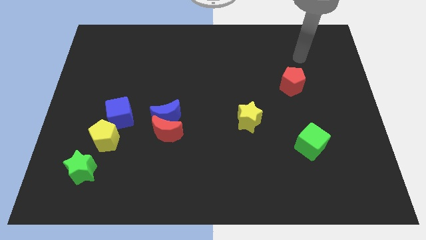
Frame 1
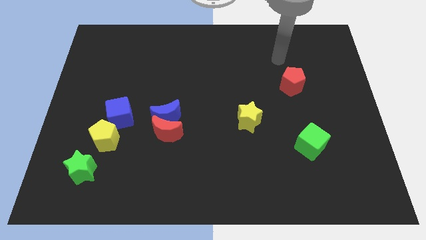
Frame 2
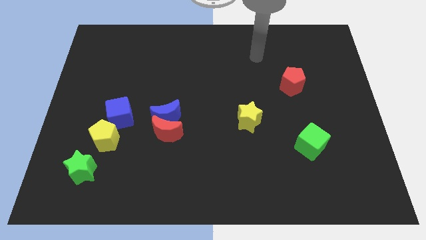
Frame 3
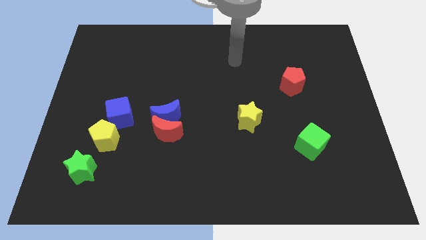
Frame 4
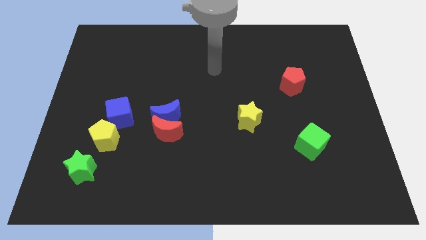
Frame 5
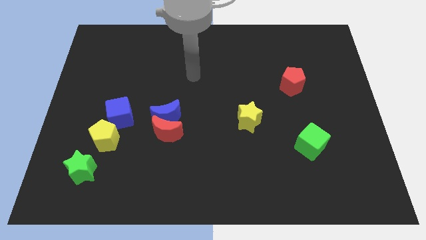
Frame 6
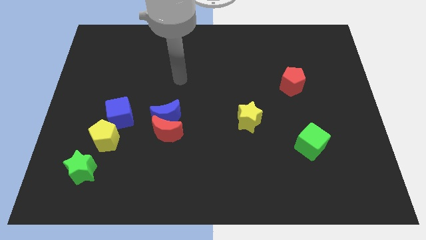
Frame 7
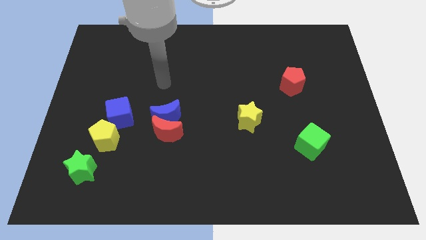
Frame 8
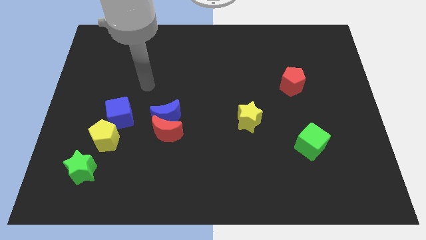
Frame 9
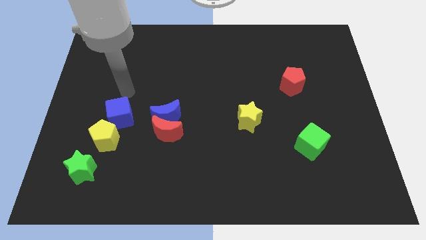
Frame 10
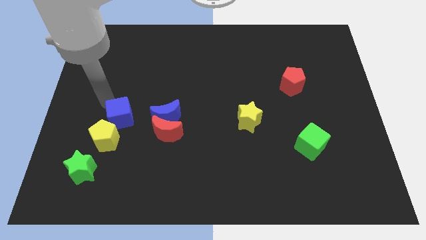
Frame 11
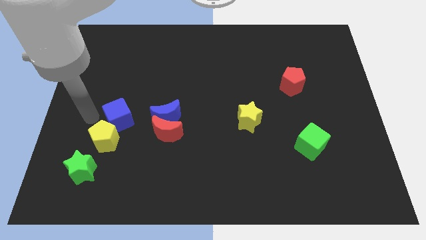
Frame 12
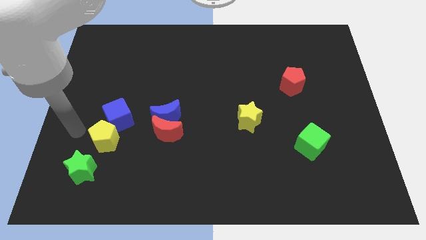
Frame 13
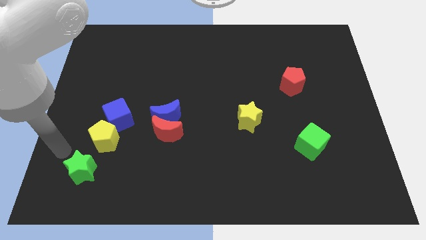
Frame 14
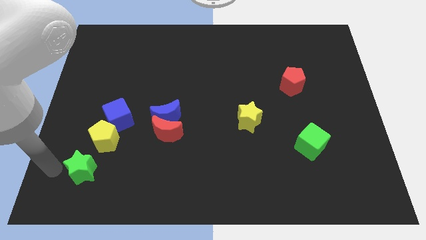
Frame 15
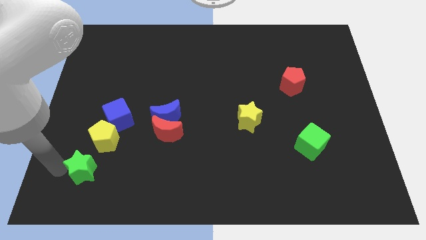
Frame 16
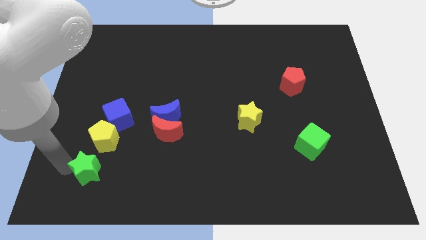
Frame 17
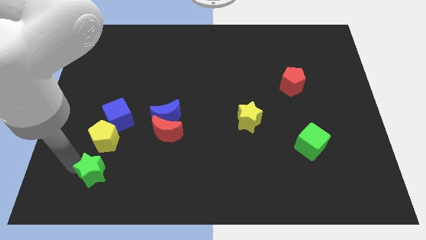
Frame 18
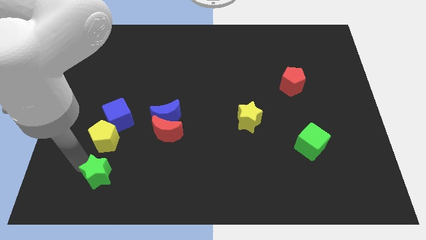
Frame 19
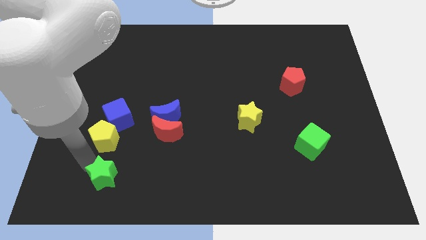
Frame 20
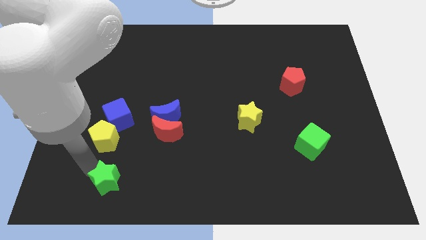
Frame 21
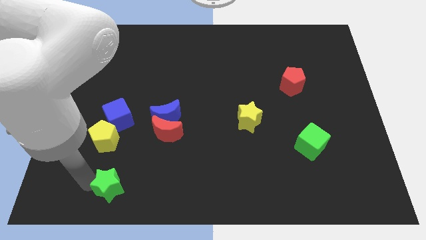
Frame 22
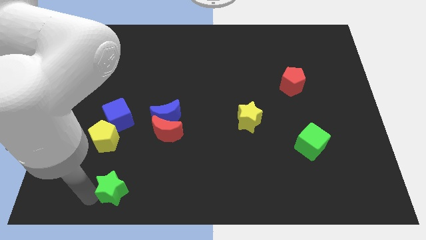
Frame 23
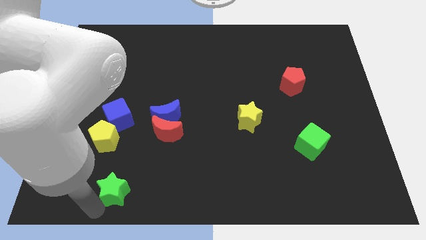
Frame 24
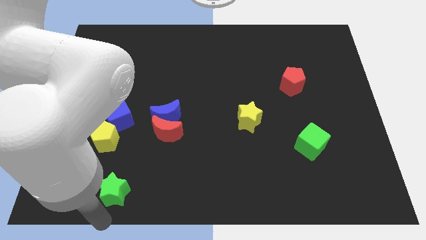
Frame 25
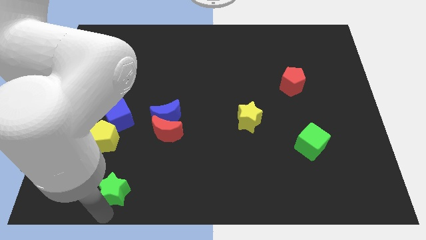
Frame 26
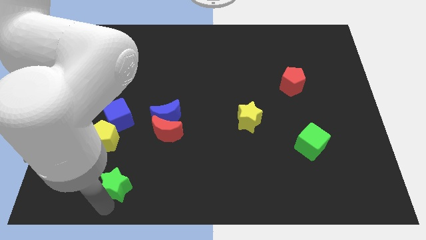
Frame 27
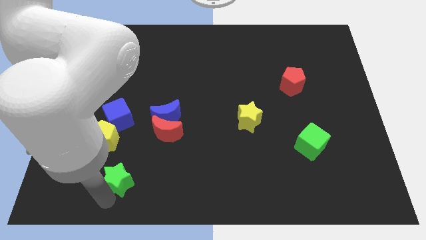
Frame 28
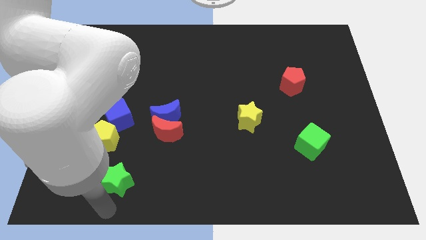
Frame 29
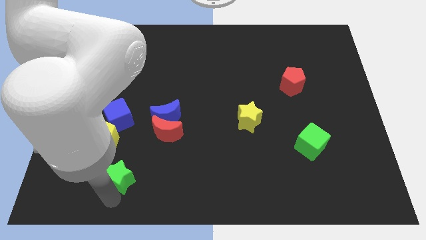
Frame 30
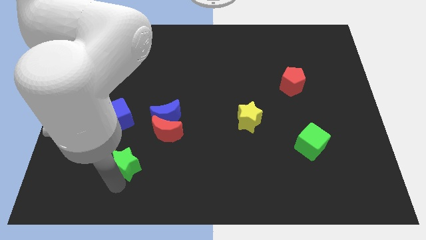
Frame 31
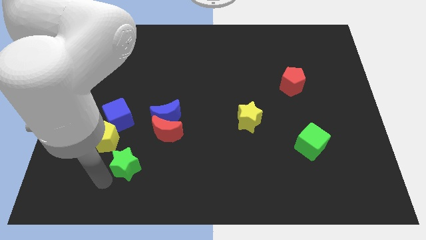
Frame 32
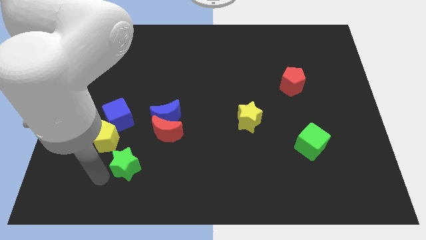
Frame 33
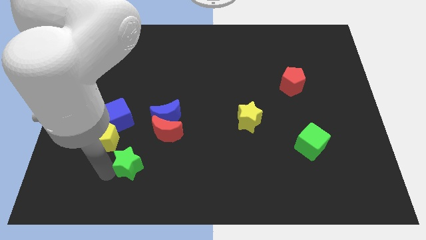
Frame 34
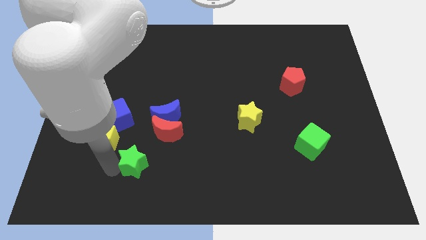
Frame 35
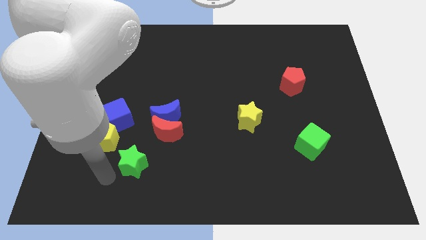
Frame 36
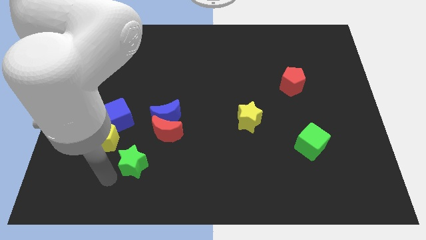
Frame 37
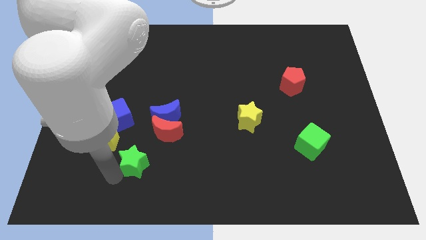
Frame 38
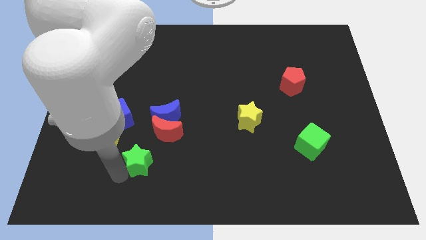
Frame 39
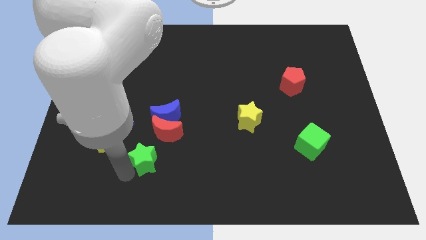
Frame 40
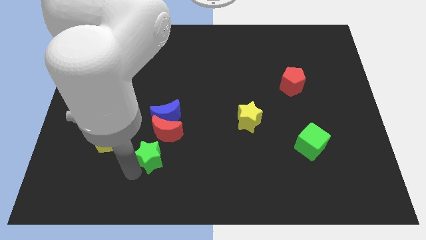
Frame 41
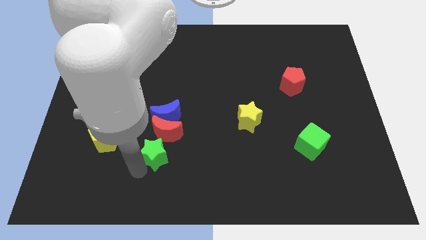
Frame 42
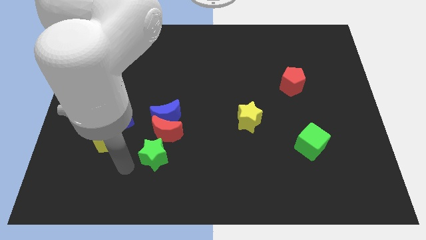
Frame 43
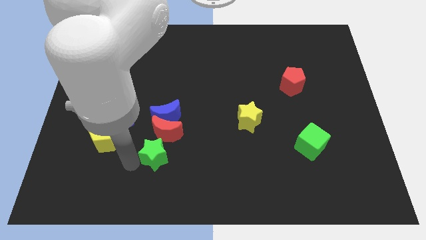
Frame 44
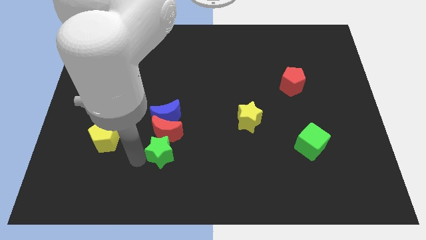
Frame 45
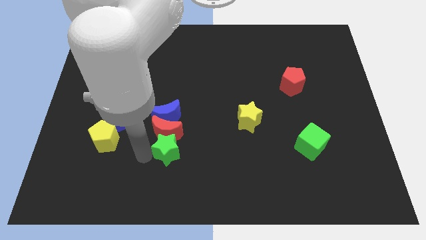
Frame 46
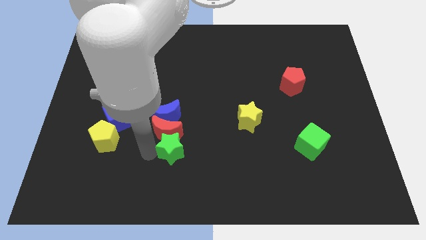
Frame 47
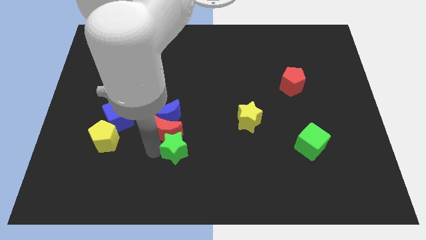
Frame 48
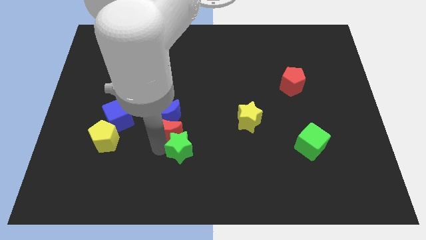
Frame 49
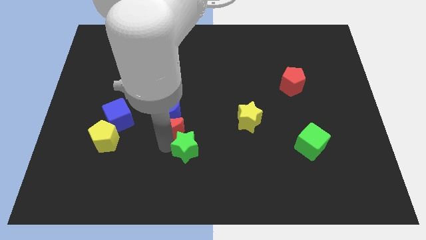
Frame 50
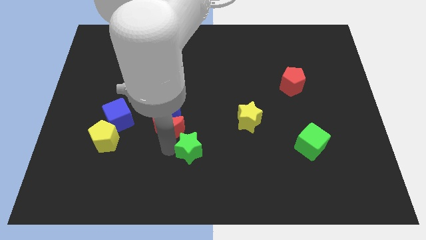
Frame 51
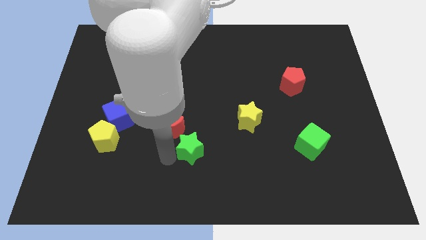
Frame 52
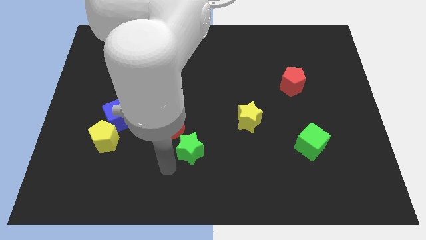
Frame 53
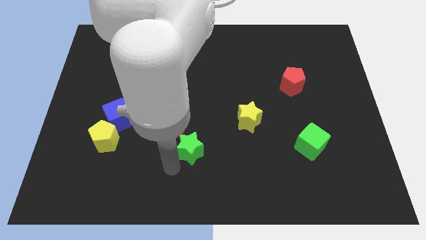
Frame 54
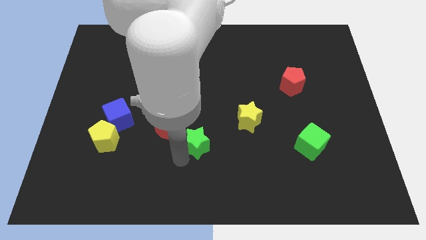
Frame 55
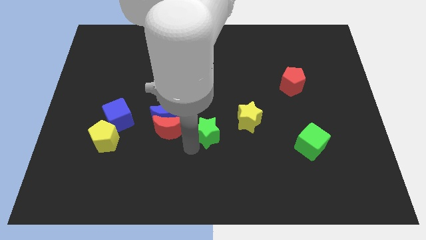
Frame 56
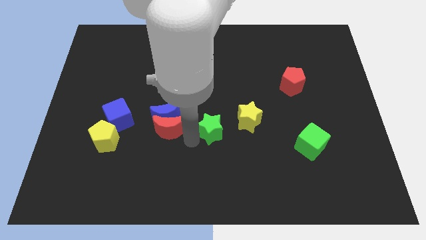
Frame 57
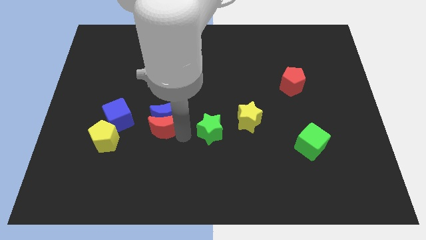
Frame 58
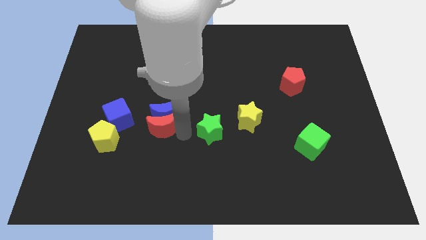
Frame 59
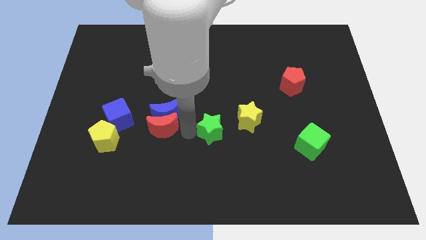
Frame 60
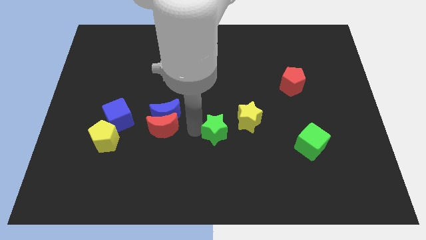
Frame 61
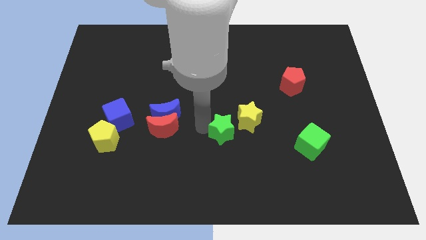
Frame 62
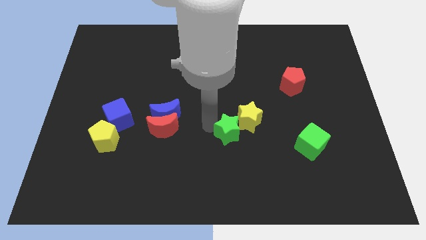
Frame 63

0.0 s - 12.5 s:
move the green star to the yellow star

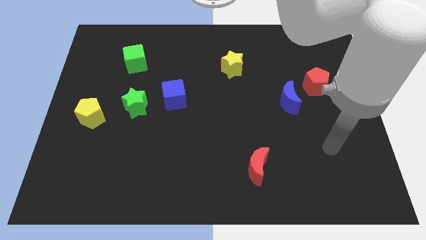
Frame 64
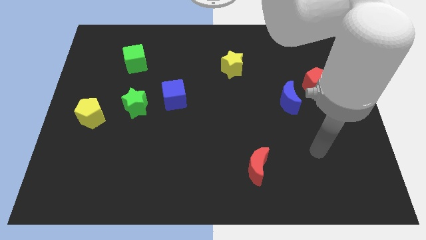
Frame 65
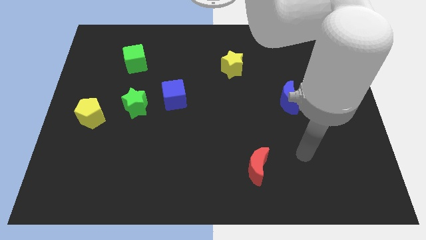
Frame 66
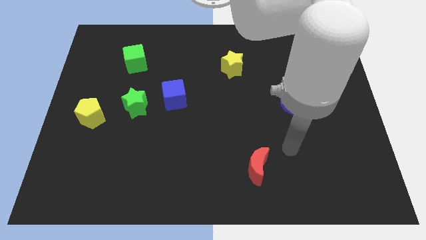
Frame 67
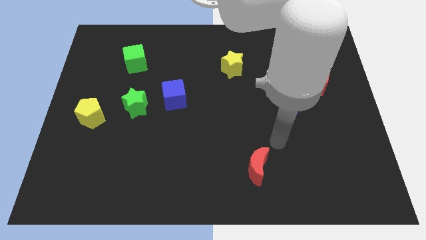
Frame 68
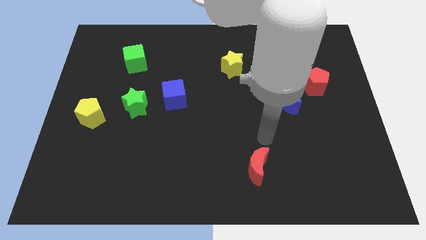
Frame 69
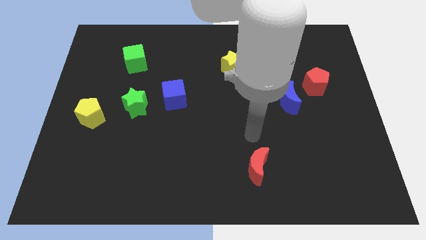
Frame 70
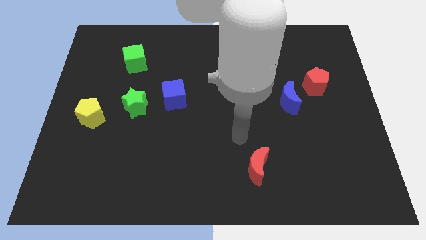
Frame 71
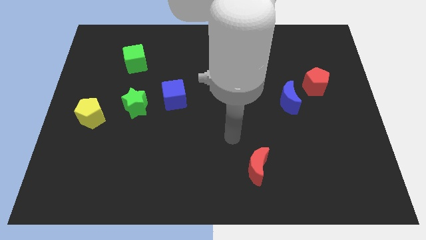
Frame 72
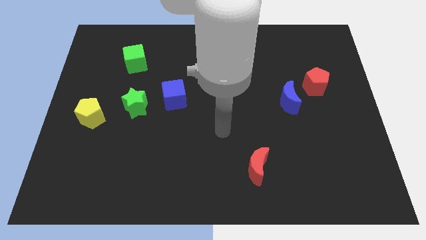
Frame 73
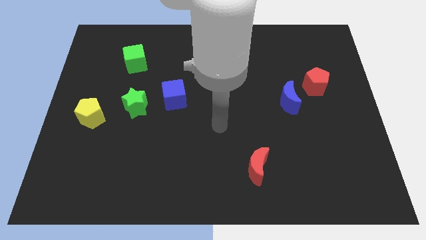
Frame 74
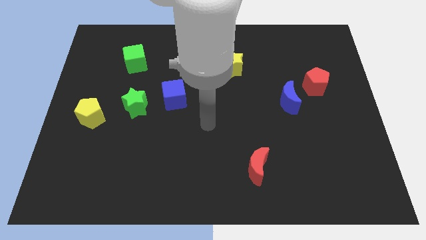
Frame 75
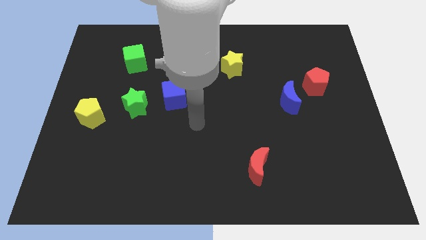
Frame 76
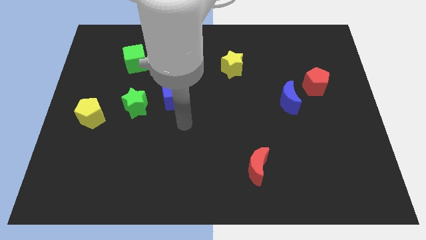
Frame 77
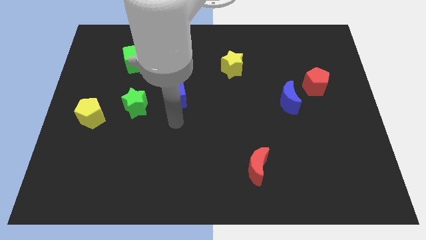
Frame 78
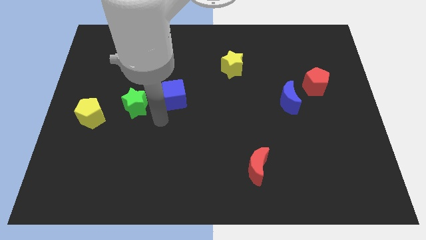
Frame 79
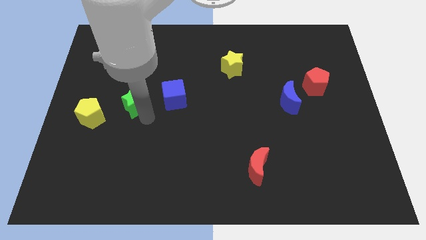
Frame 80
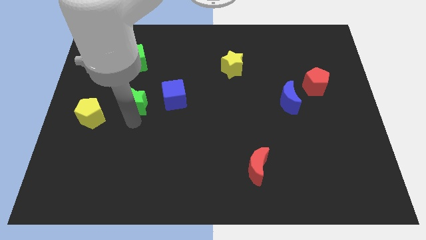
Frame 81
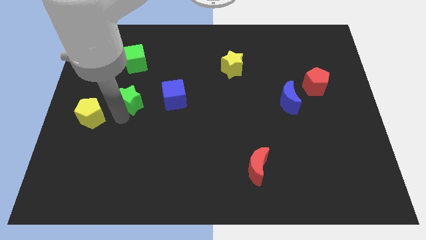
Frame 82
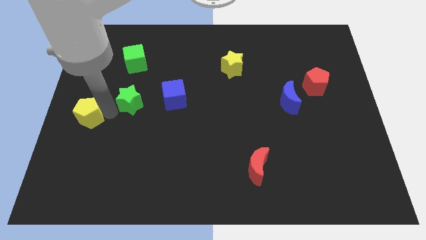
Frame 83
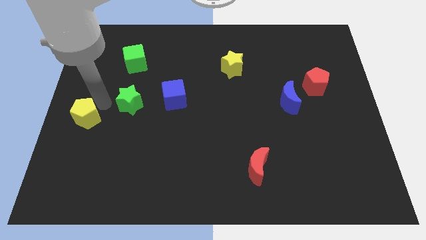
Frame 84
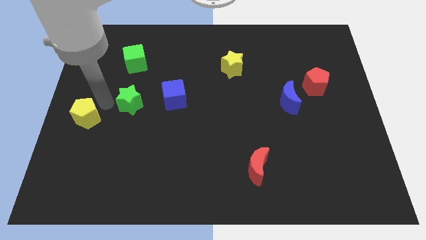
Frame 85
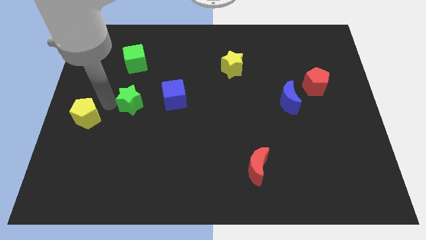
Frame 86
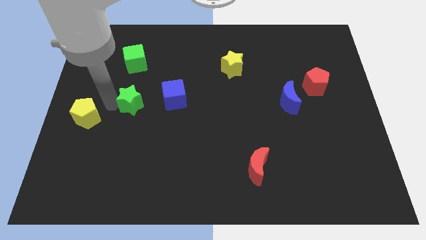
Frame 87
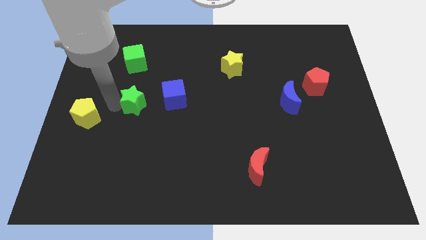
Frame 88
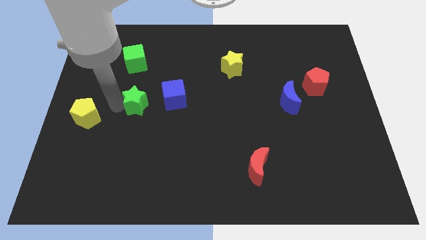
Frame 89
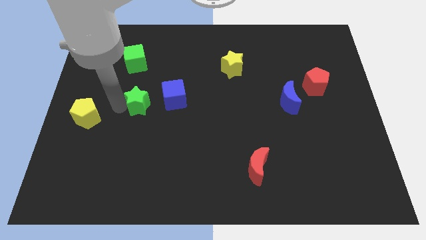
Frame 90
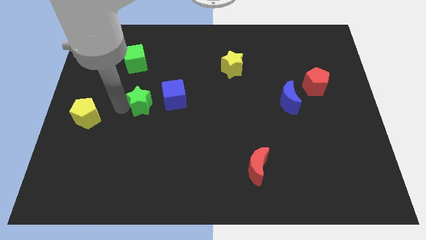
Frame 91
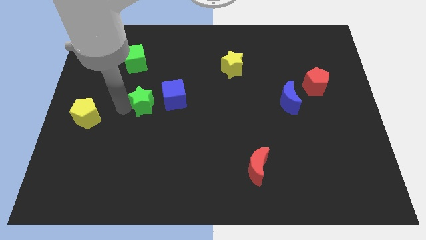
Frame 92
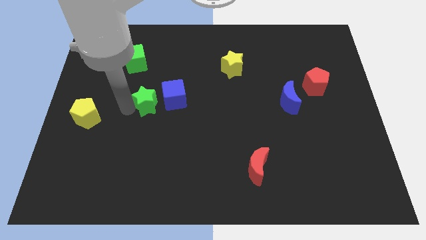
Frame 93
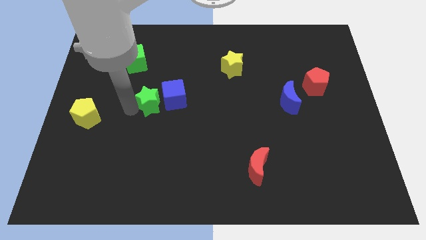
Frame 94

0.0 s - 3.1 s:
move the green star towards the blue cube
